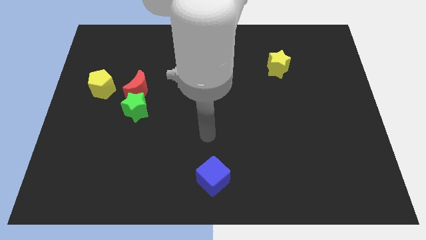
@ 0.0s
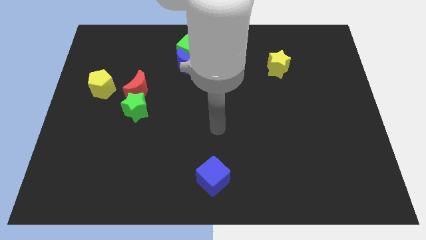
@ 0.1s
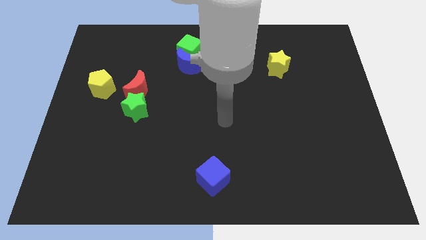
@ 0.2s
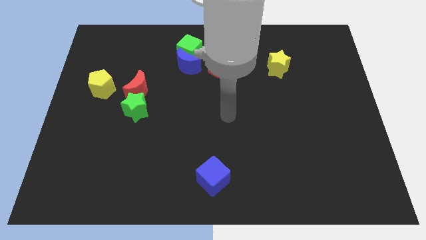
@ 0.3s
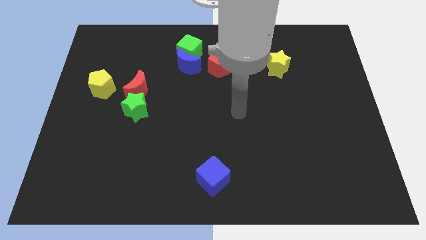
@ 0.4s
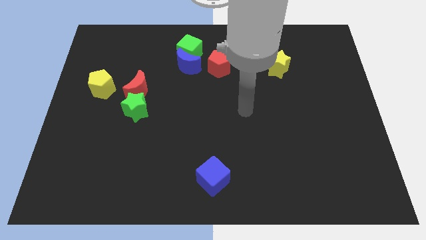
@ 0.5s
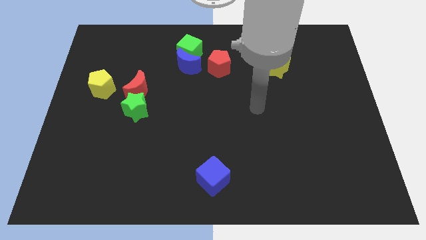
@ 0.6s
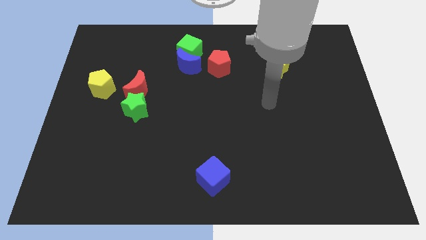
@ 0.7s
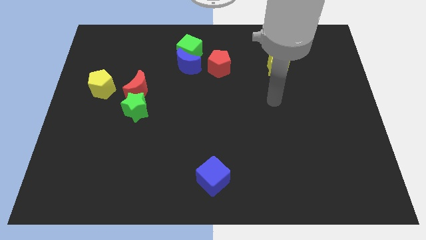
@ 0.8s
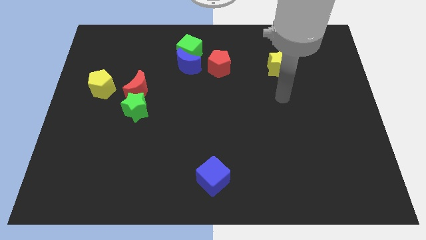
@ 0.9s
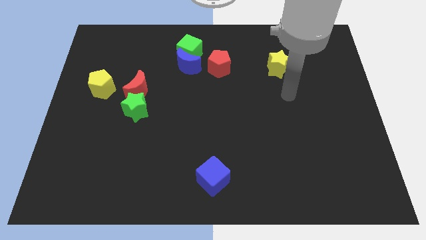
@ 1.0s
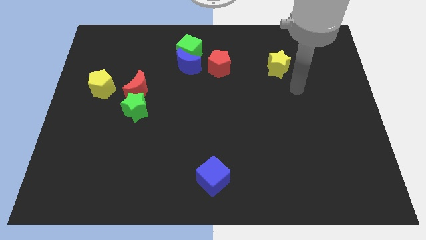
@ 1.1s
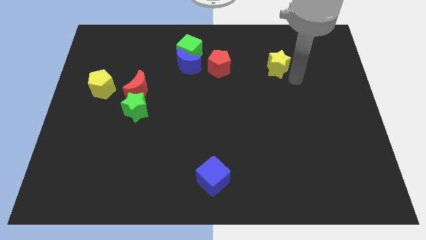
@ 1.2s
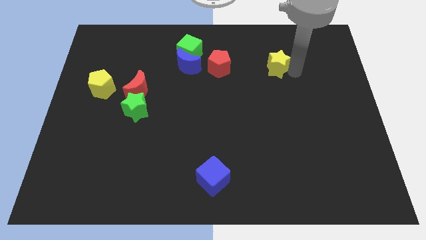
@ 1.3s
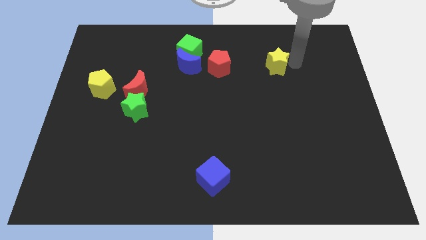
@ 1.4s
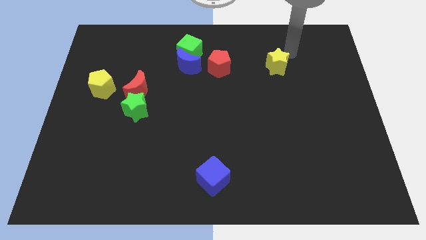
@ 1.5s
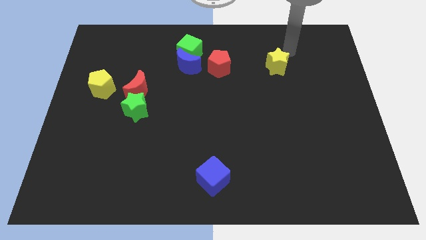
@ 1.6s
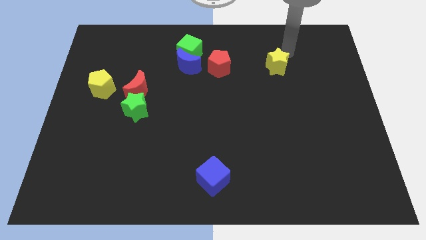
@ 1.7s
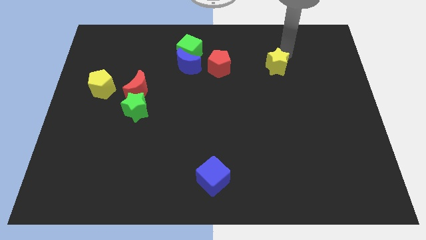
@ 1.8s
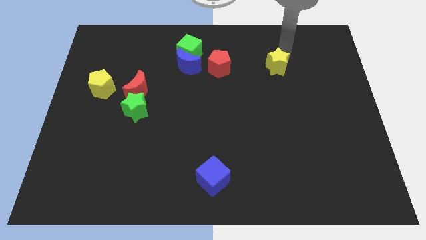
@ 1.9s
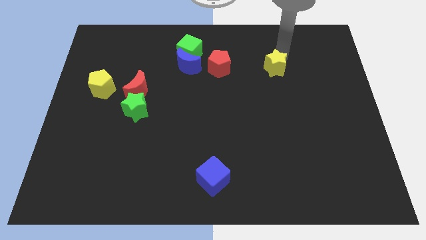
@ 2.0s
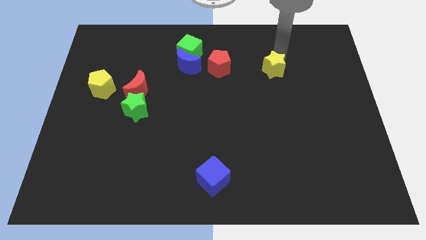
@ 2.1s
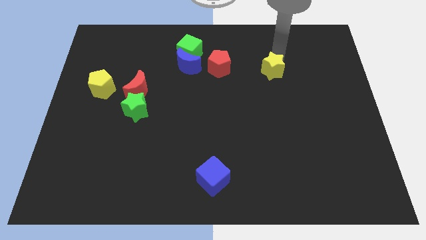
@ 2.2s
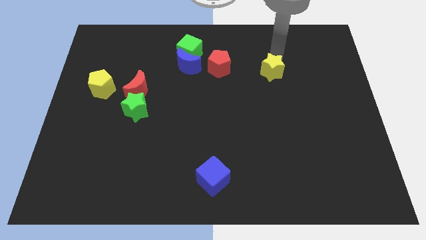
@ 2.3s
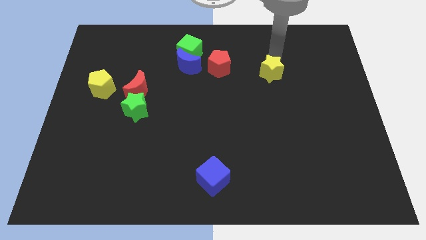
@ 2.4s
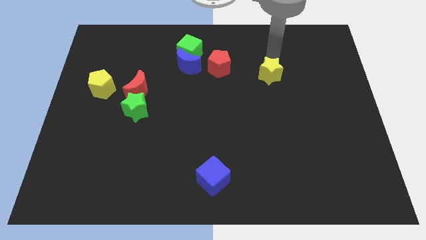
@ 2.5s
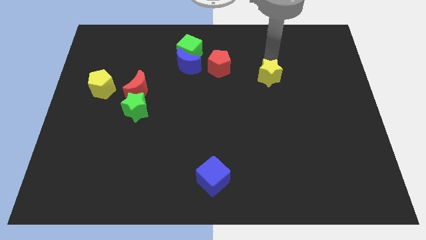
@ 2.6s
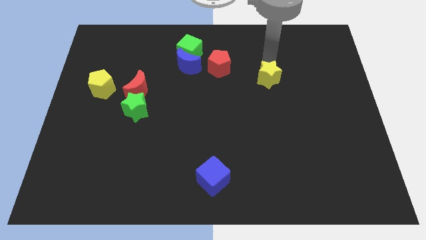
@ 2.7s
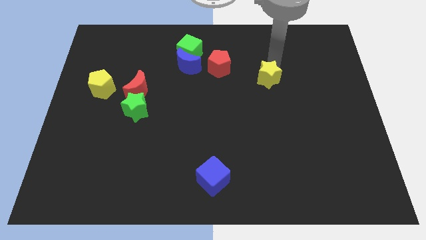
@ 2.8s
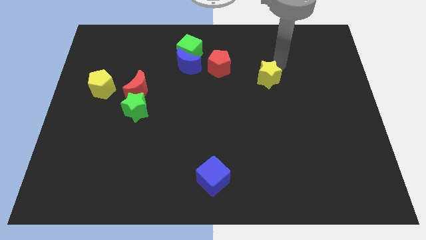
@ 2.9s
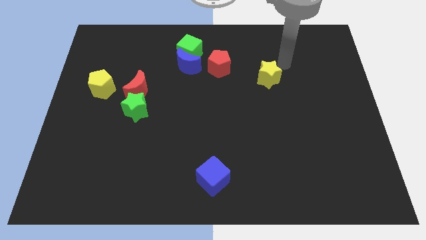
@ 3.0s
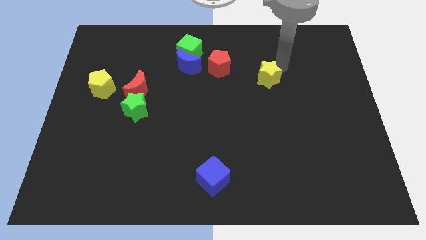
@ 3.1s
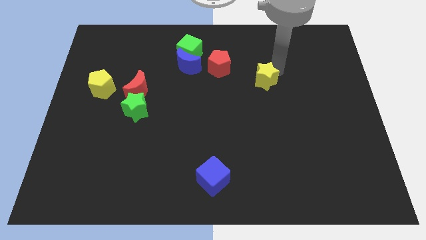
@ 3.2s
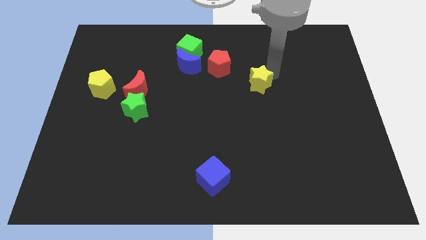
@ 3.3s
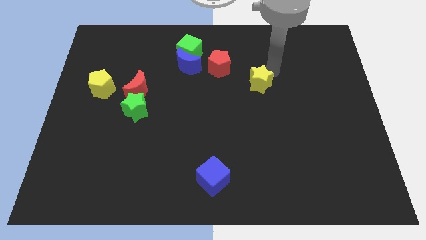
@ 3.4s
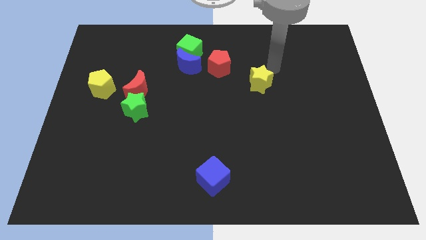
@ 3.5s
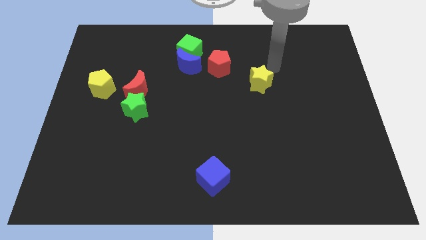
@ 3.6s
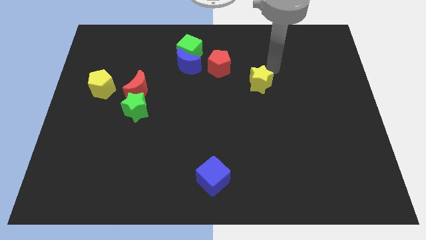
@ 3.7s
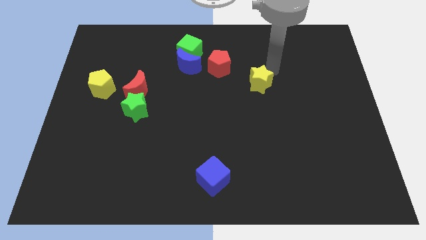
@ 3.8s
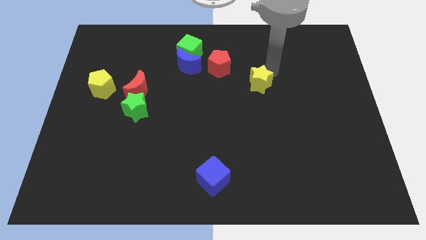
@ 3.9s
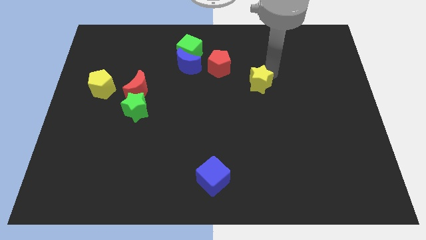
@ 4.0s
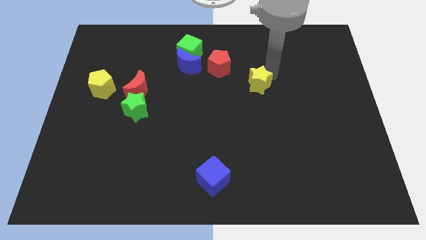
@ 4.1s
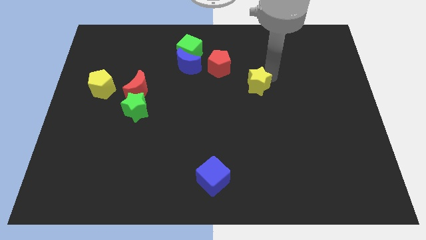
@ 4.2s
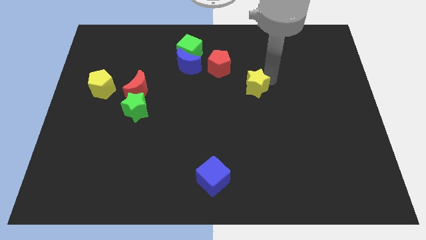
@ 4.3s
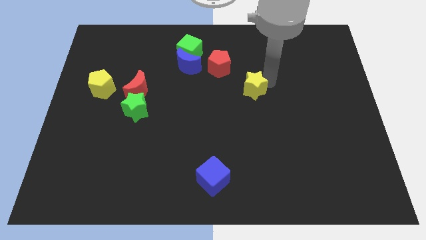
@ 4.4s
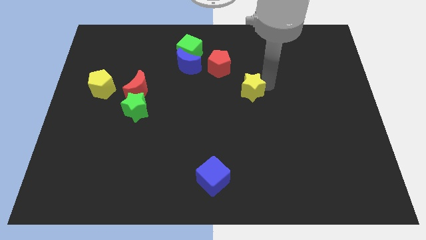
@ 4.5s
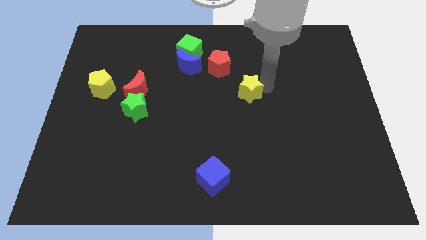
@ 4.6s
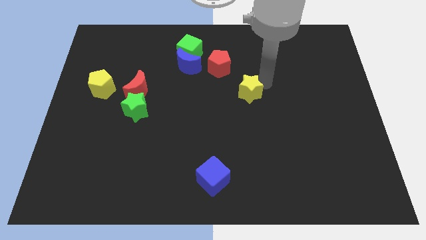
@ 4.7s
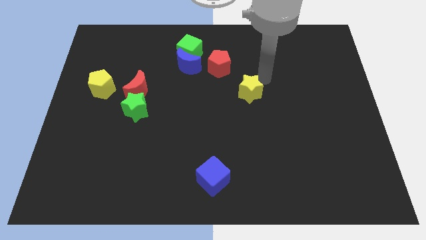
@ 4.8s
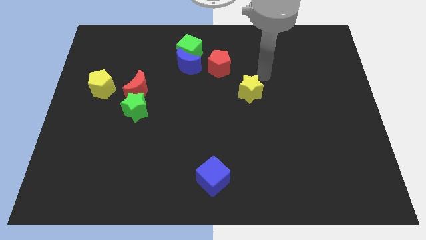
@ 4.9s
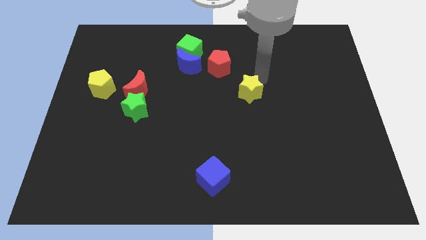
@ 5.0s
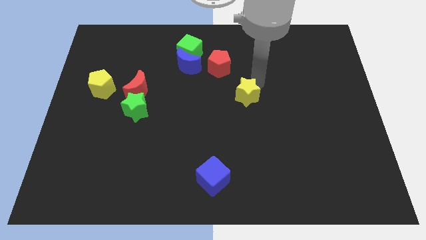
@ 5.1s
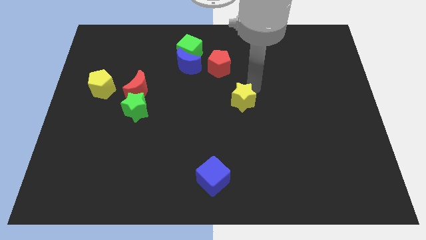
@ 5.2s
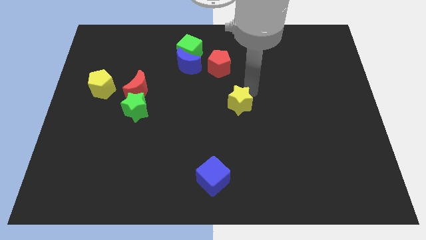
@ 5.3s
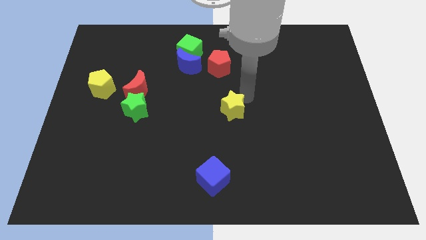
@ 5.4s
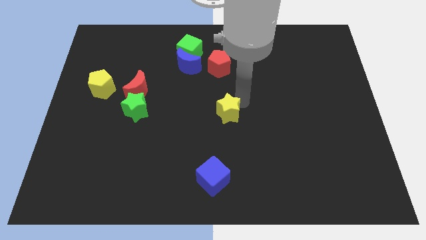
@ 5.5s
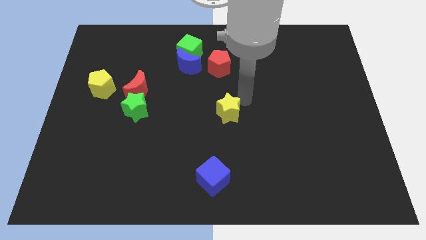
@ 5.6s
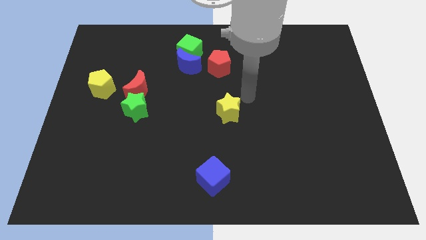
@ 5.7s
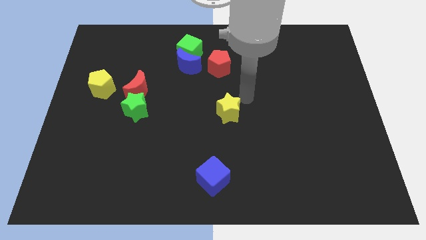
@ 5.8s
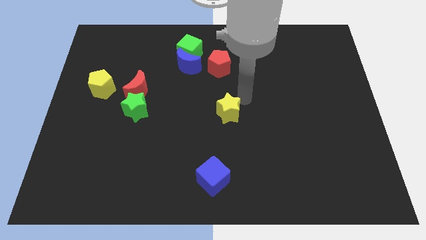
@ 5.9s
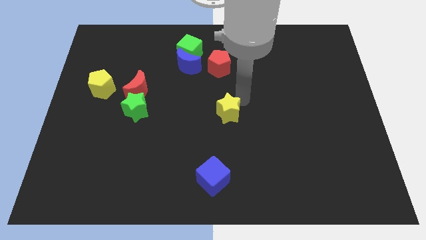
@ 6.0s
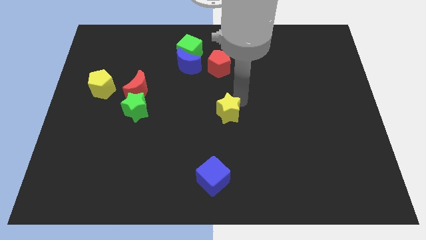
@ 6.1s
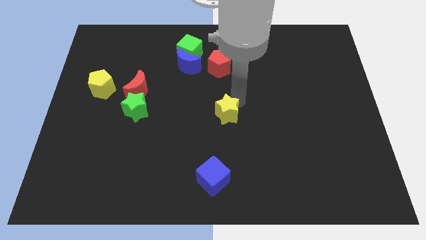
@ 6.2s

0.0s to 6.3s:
move the yellow star diagonally downwards and left

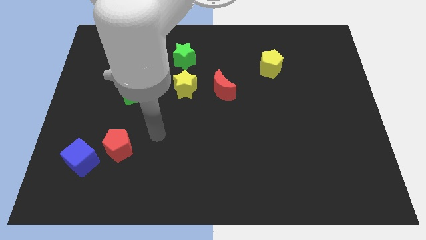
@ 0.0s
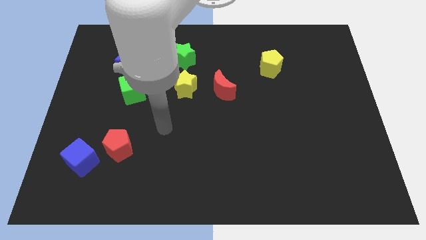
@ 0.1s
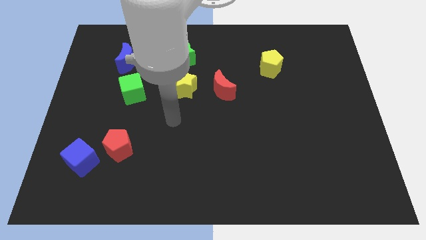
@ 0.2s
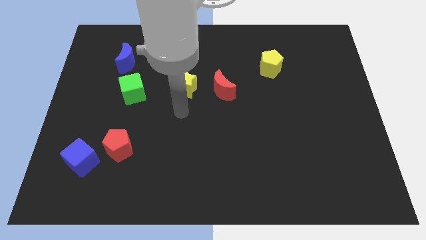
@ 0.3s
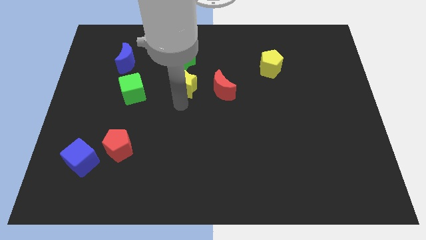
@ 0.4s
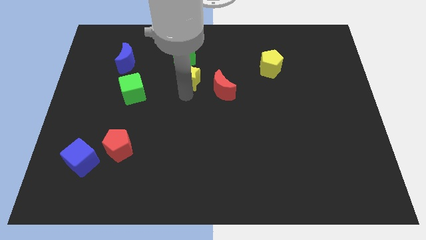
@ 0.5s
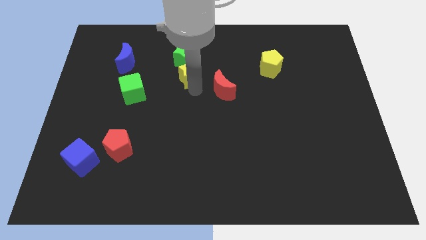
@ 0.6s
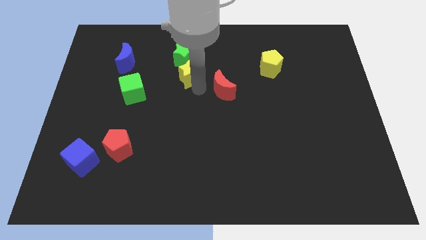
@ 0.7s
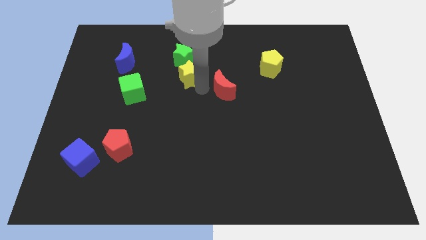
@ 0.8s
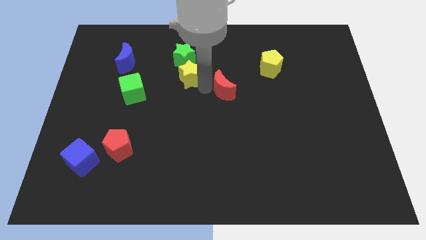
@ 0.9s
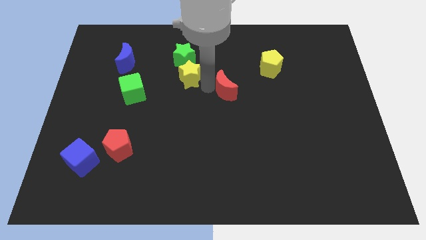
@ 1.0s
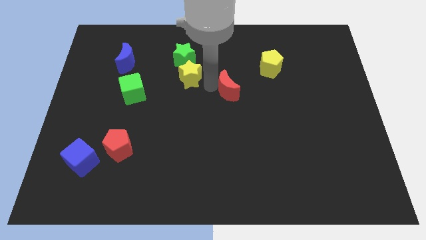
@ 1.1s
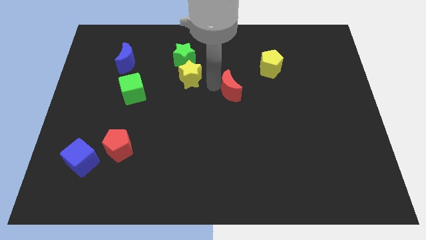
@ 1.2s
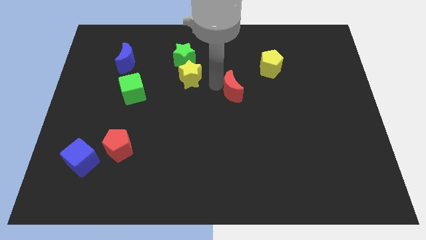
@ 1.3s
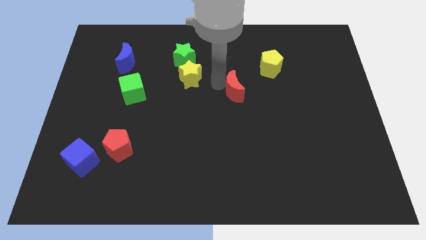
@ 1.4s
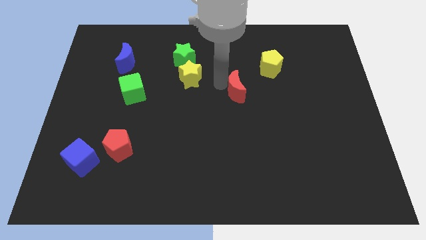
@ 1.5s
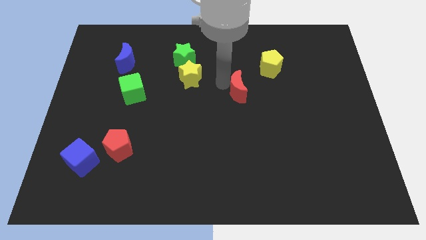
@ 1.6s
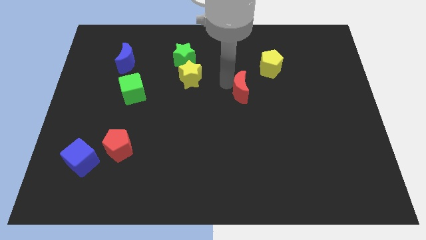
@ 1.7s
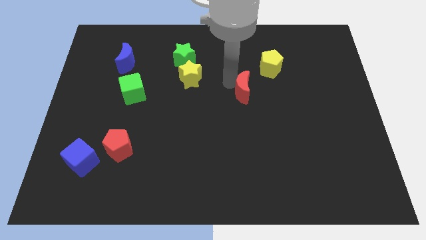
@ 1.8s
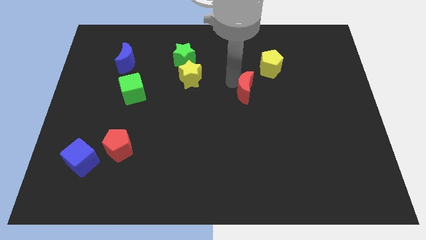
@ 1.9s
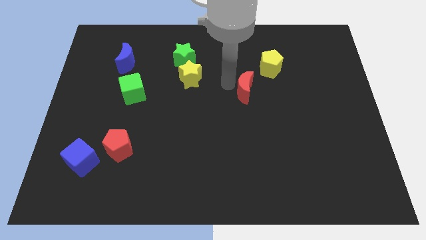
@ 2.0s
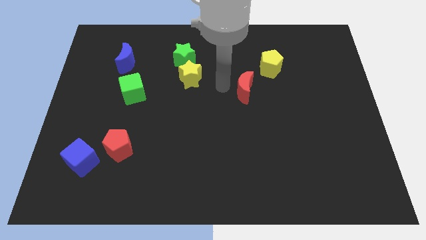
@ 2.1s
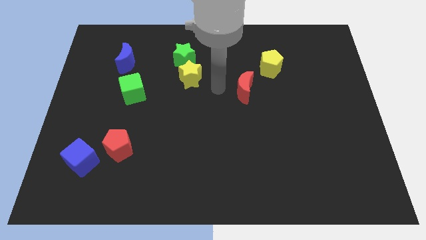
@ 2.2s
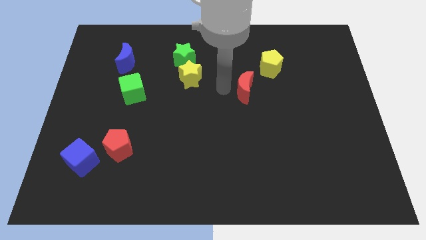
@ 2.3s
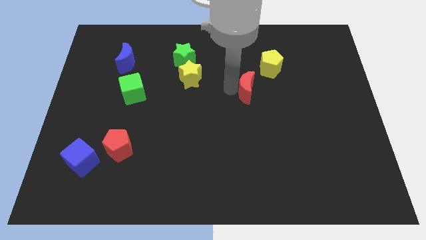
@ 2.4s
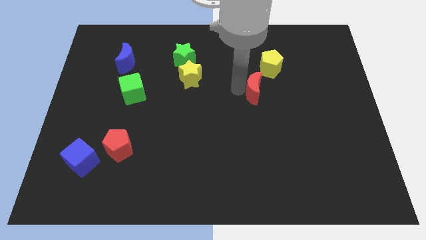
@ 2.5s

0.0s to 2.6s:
push the red moon a little right
